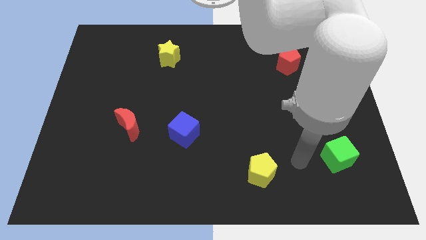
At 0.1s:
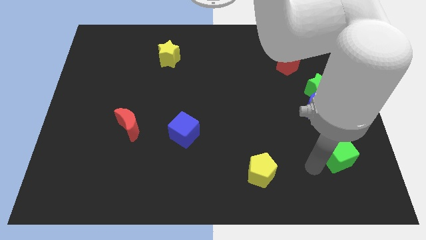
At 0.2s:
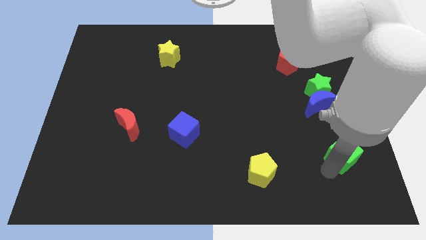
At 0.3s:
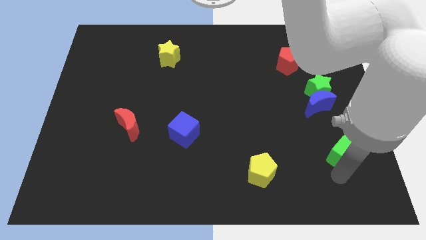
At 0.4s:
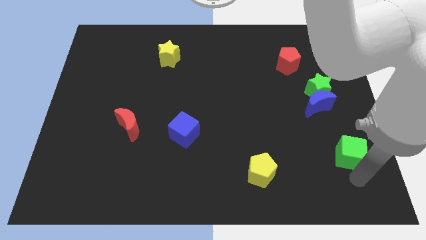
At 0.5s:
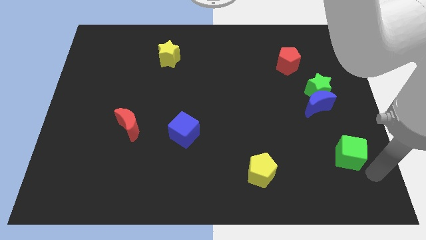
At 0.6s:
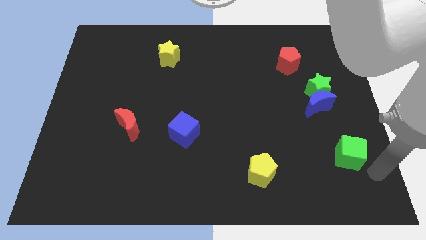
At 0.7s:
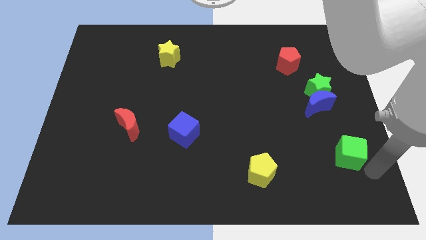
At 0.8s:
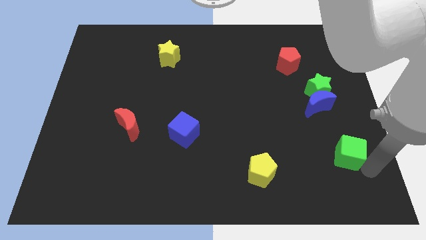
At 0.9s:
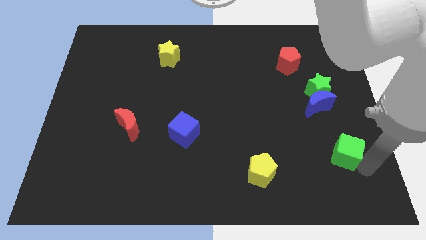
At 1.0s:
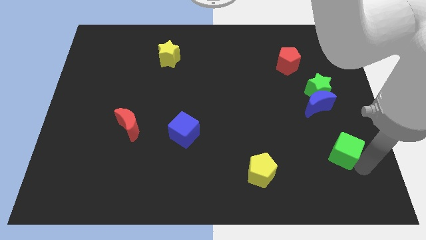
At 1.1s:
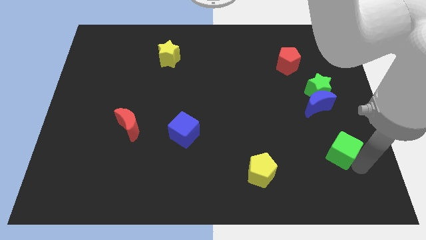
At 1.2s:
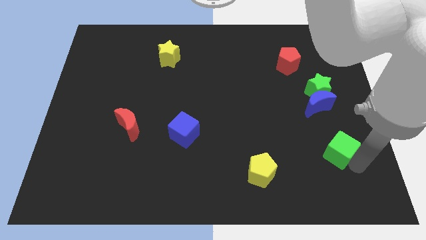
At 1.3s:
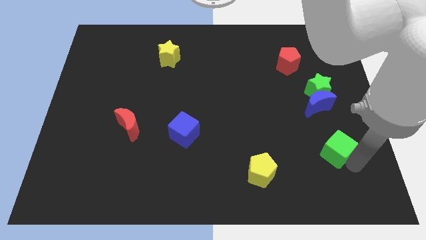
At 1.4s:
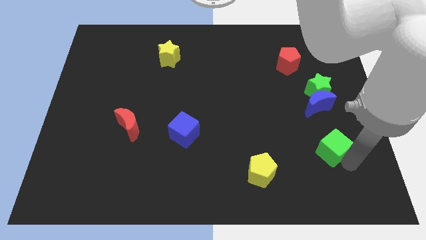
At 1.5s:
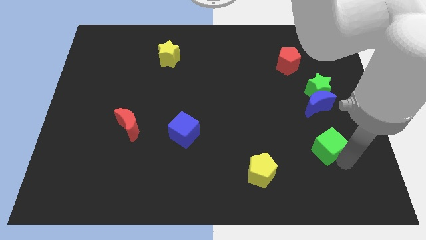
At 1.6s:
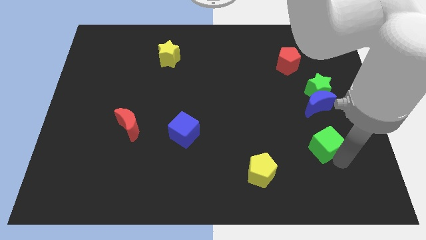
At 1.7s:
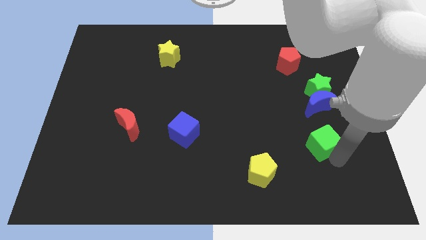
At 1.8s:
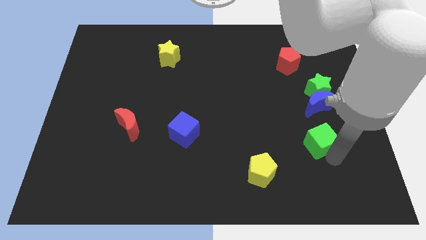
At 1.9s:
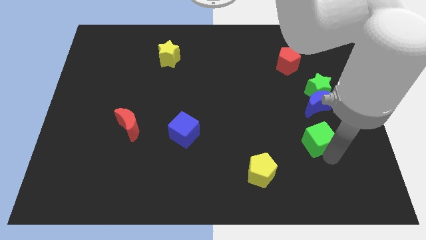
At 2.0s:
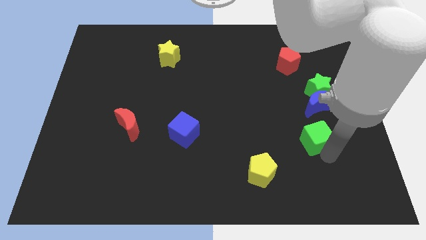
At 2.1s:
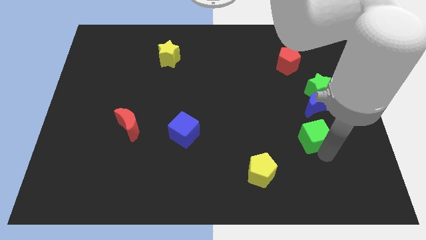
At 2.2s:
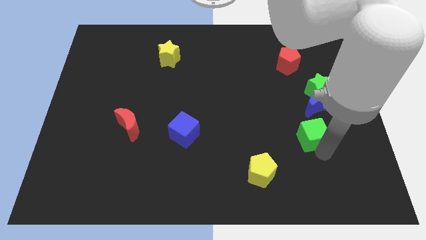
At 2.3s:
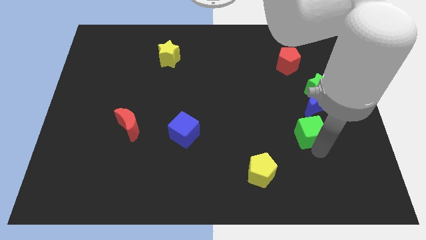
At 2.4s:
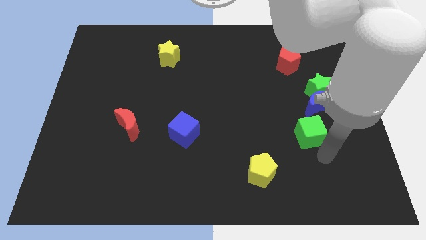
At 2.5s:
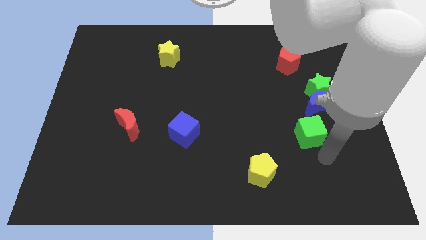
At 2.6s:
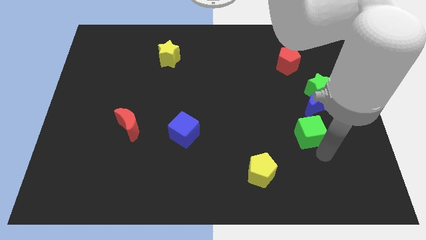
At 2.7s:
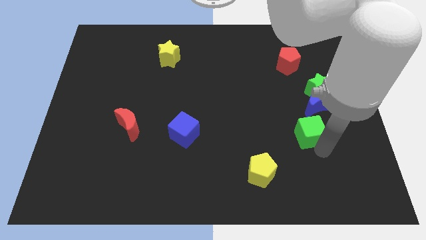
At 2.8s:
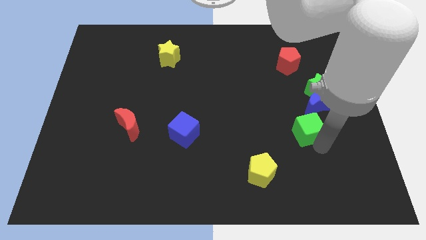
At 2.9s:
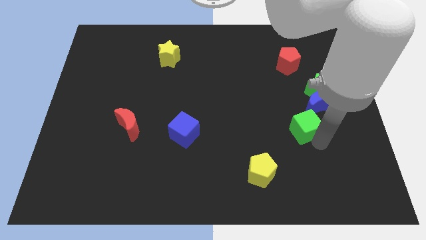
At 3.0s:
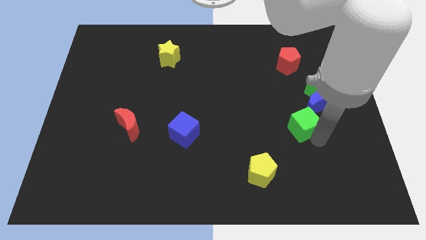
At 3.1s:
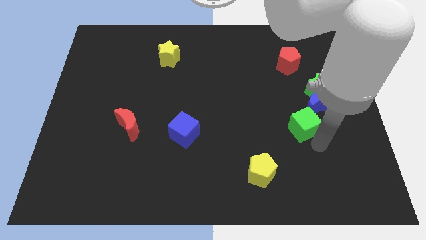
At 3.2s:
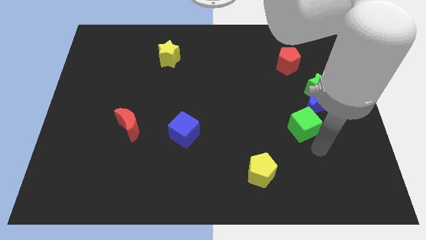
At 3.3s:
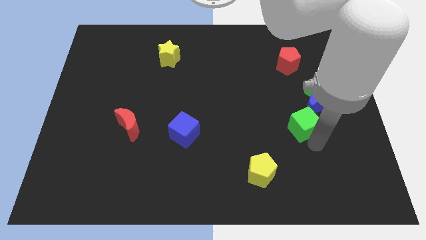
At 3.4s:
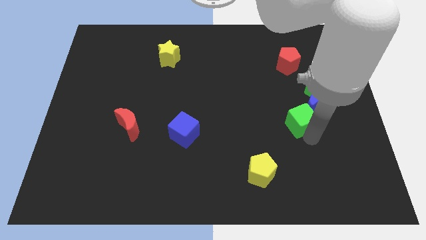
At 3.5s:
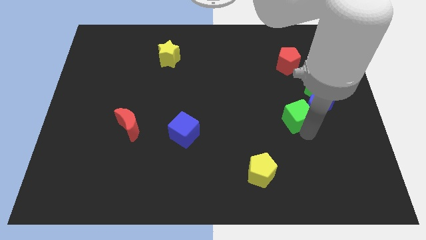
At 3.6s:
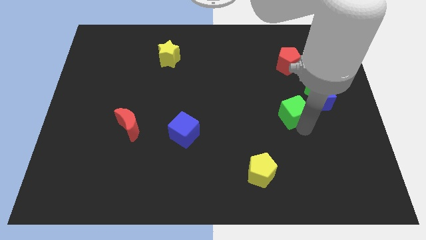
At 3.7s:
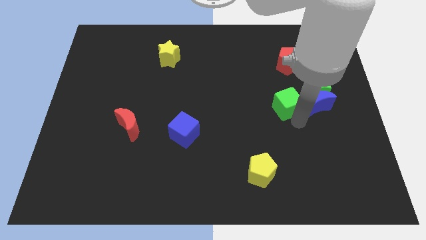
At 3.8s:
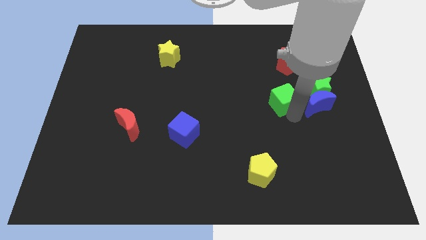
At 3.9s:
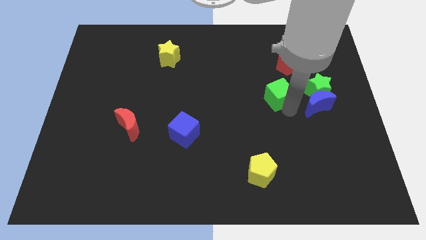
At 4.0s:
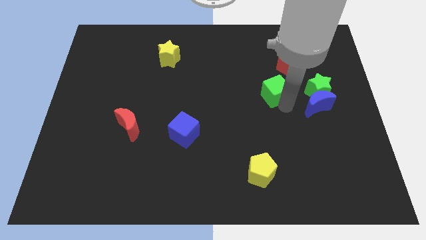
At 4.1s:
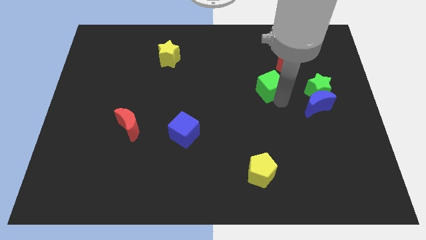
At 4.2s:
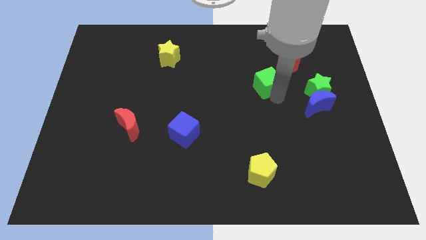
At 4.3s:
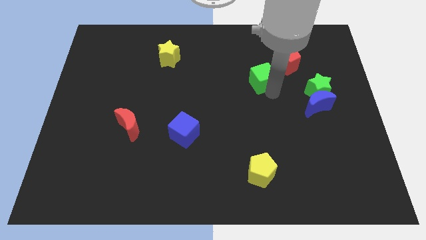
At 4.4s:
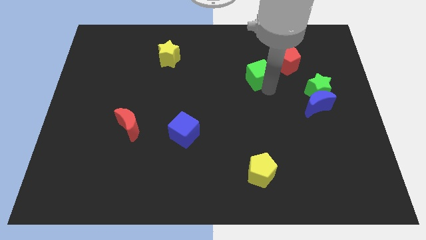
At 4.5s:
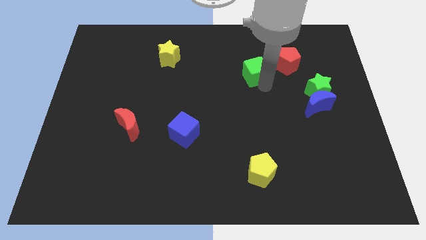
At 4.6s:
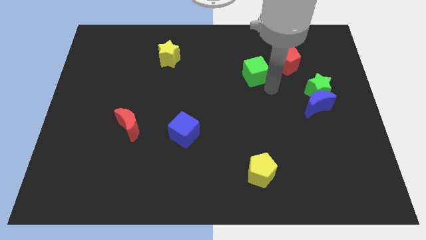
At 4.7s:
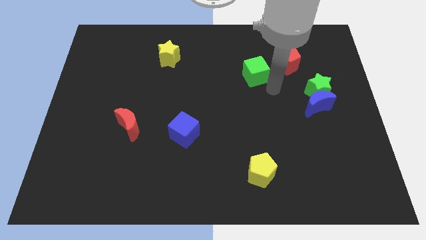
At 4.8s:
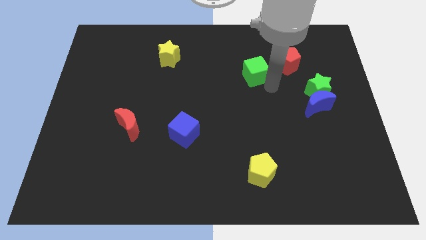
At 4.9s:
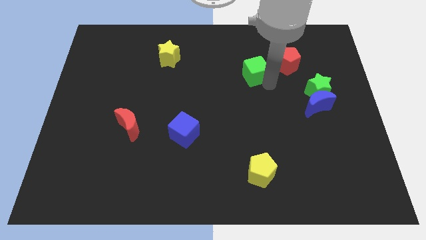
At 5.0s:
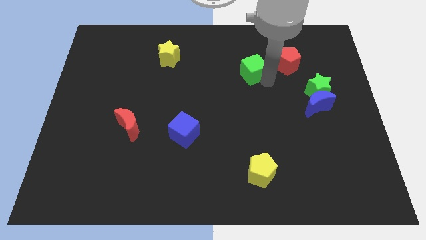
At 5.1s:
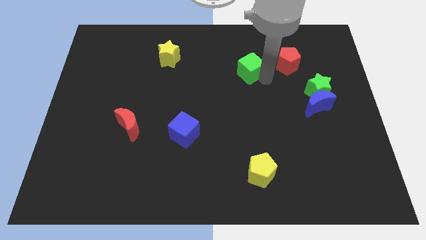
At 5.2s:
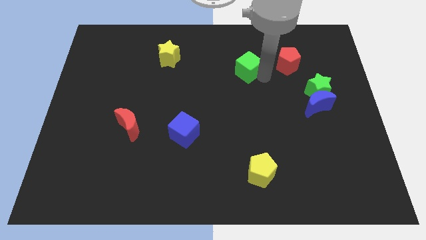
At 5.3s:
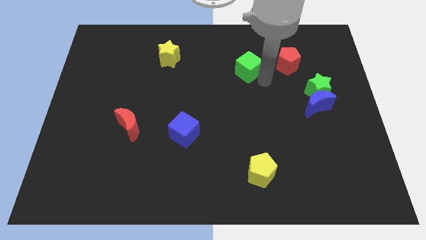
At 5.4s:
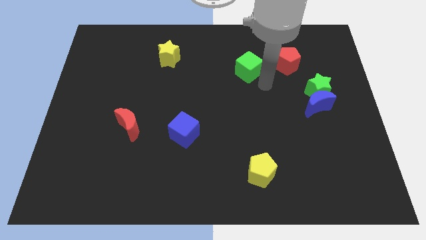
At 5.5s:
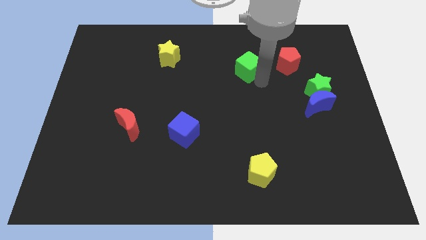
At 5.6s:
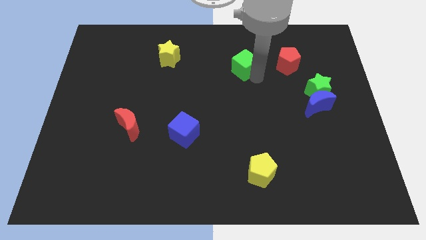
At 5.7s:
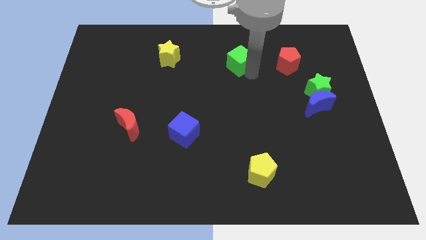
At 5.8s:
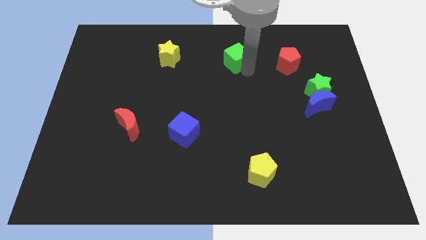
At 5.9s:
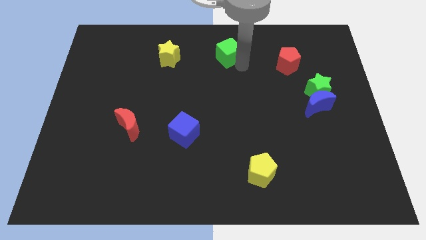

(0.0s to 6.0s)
push the green cube to the top

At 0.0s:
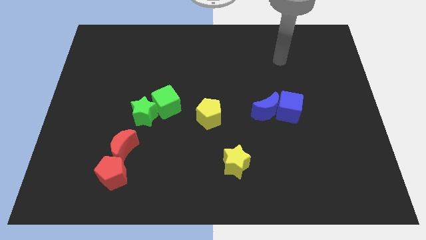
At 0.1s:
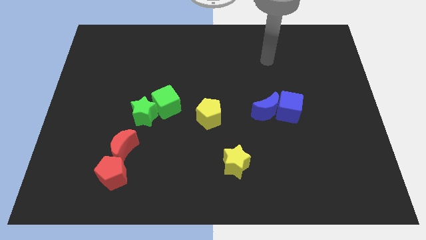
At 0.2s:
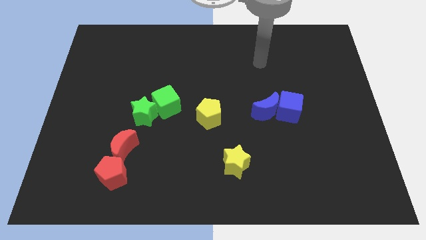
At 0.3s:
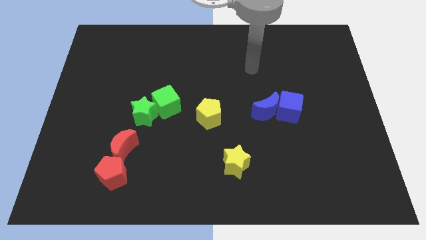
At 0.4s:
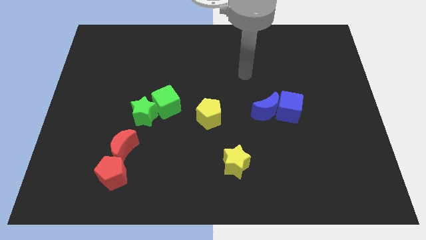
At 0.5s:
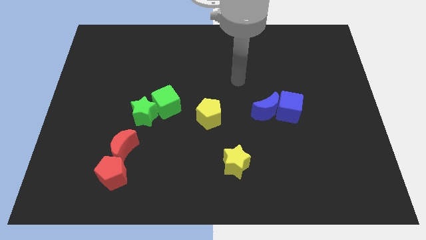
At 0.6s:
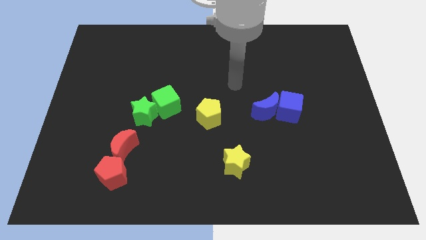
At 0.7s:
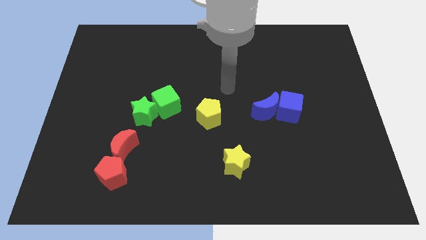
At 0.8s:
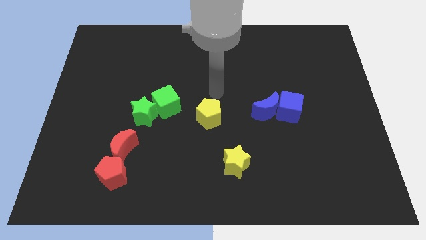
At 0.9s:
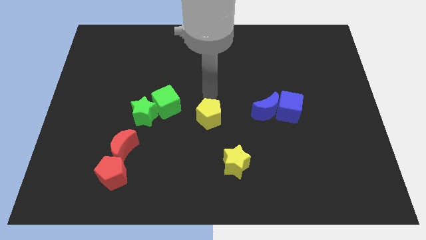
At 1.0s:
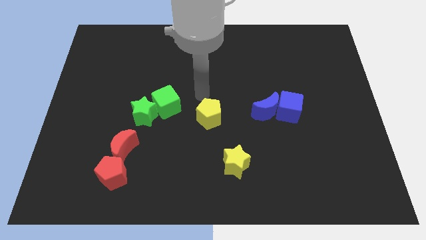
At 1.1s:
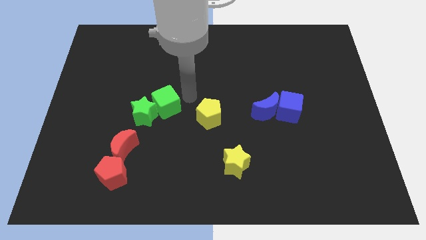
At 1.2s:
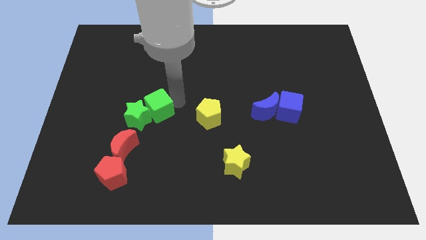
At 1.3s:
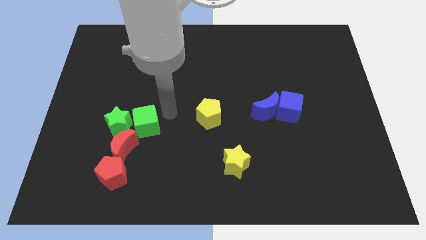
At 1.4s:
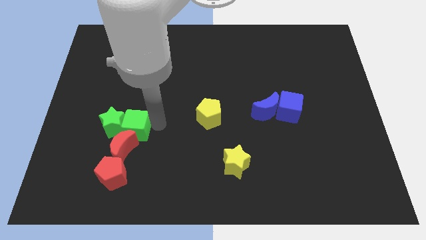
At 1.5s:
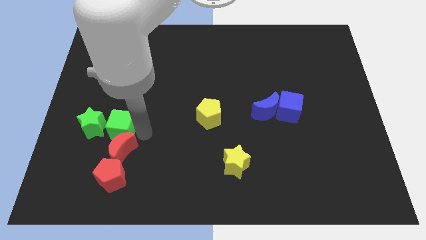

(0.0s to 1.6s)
move the green star to the left side
